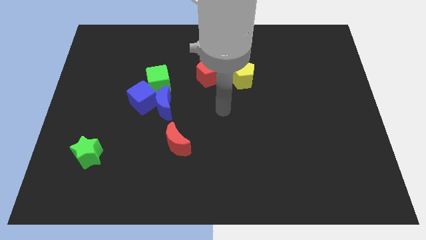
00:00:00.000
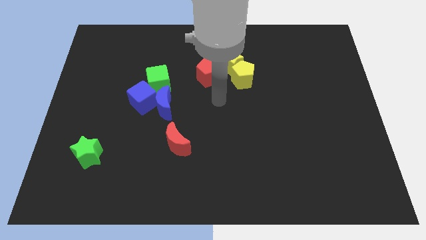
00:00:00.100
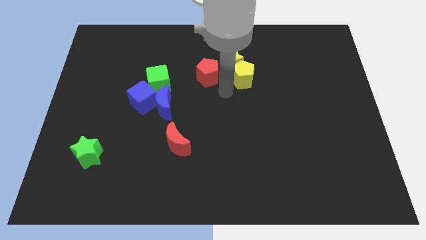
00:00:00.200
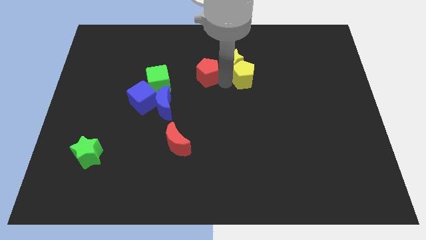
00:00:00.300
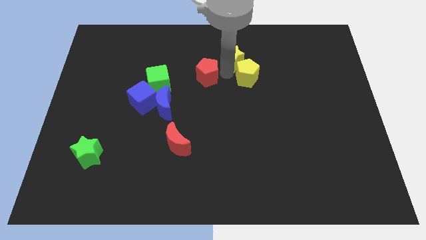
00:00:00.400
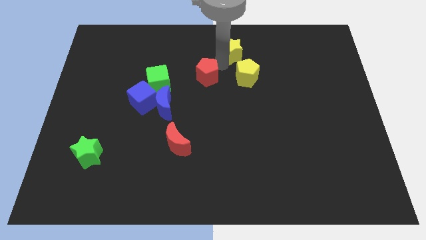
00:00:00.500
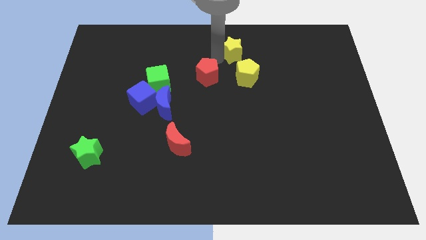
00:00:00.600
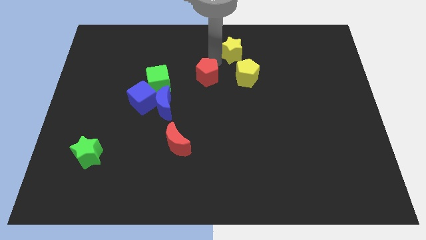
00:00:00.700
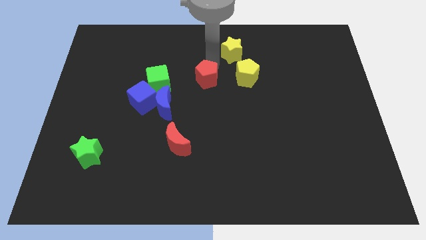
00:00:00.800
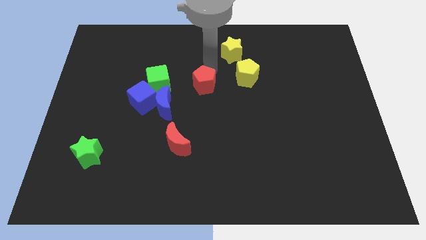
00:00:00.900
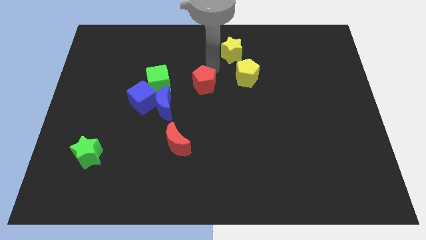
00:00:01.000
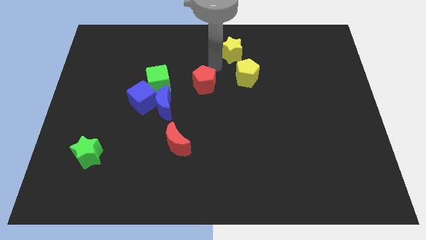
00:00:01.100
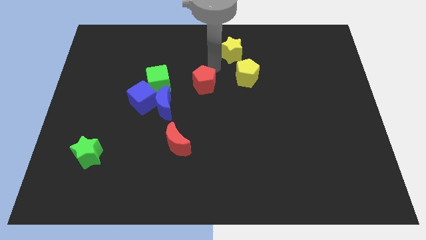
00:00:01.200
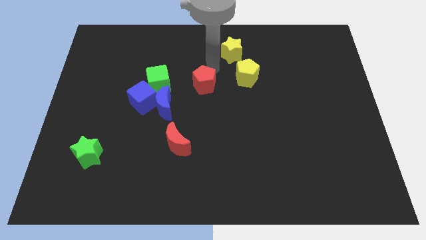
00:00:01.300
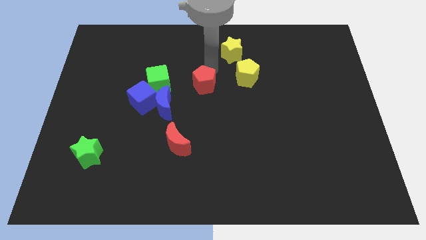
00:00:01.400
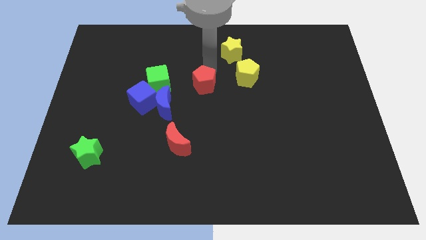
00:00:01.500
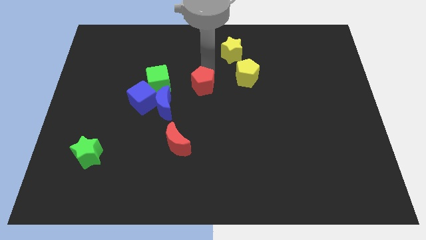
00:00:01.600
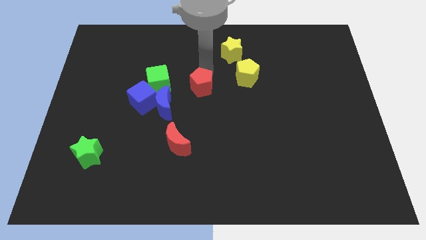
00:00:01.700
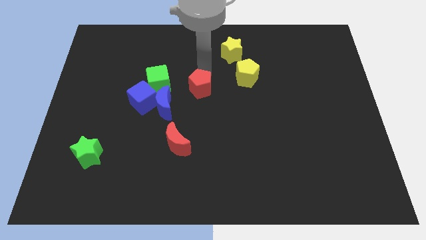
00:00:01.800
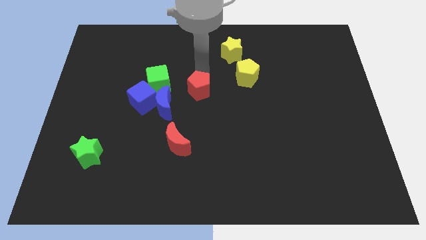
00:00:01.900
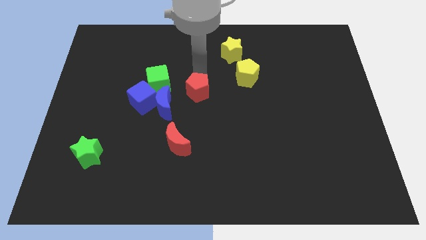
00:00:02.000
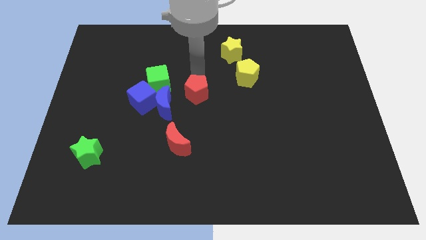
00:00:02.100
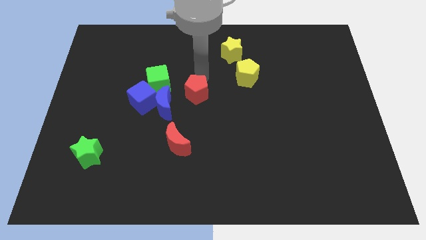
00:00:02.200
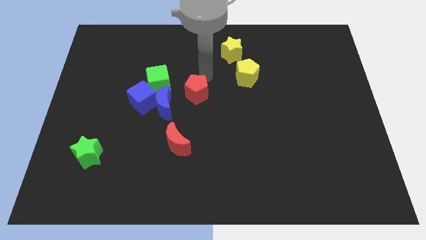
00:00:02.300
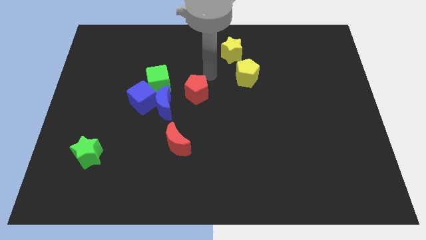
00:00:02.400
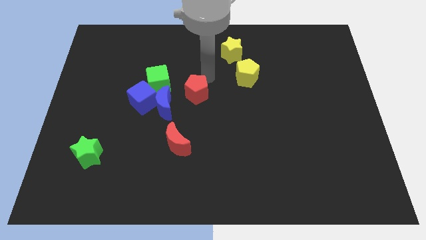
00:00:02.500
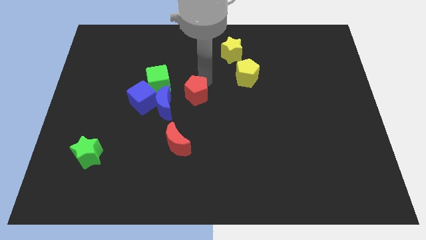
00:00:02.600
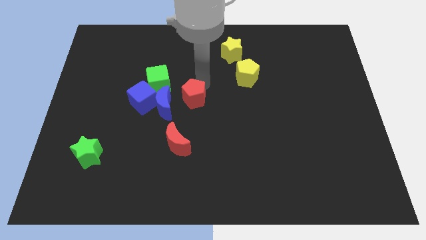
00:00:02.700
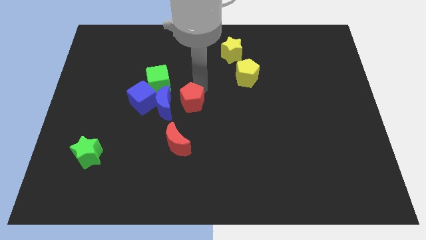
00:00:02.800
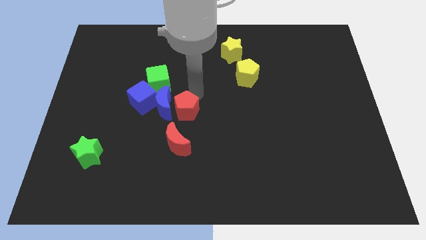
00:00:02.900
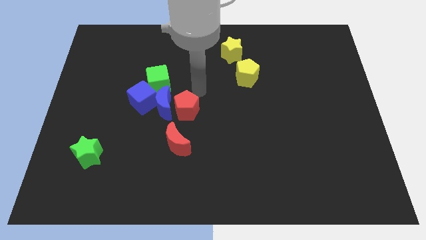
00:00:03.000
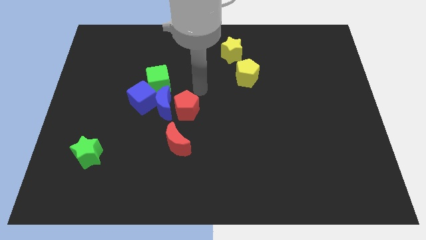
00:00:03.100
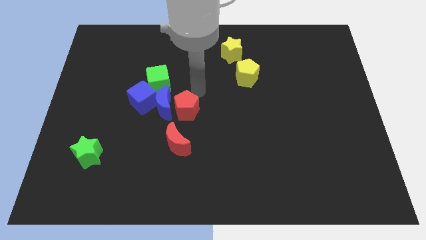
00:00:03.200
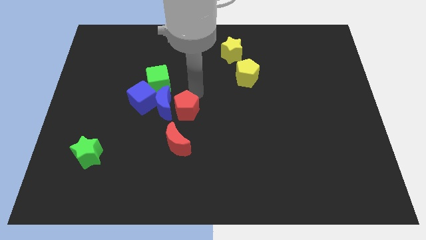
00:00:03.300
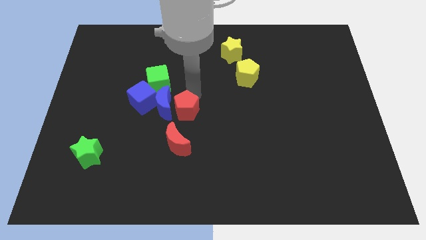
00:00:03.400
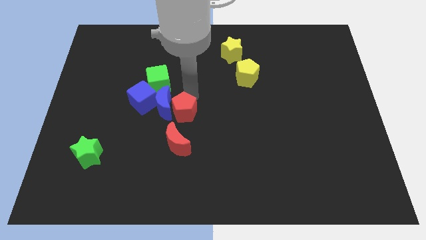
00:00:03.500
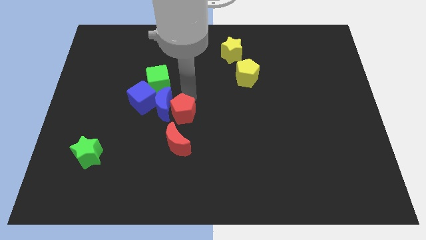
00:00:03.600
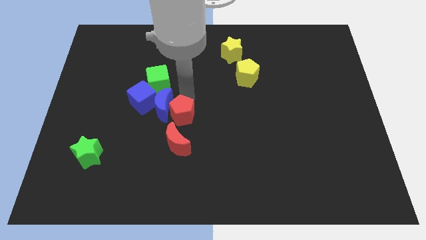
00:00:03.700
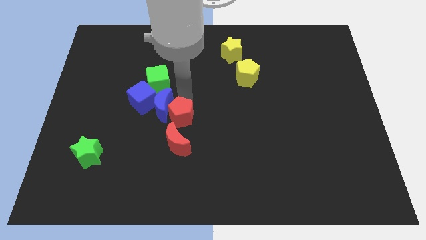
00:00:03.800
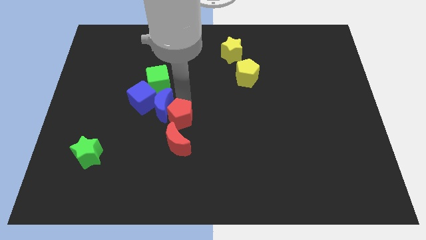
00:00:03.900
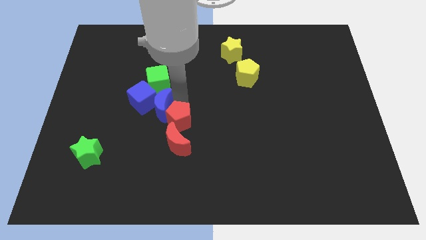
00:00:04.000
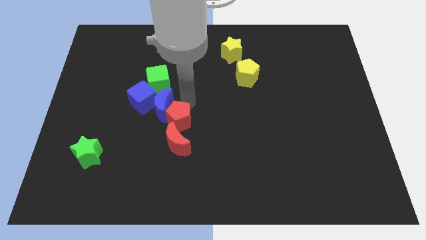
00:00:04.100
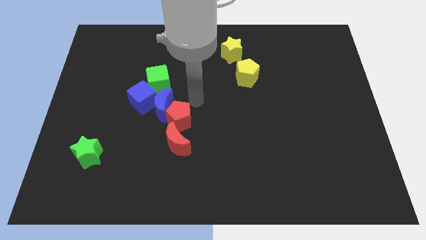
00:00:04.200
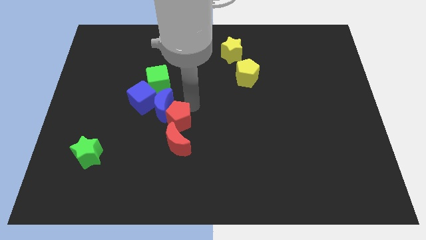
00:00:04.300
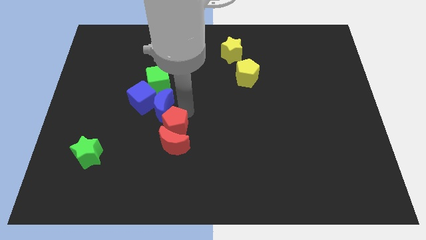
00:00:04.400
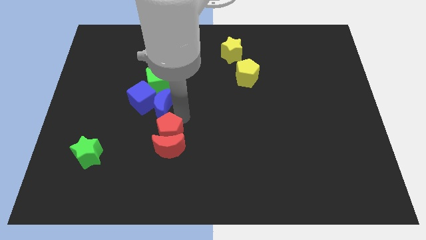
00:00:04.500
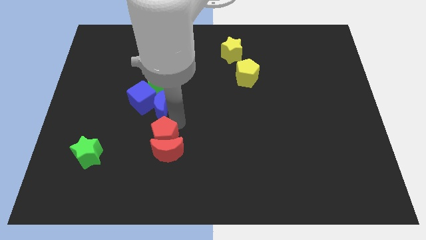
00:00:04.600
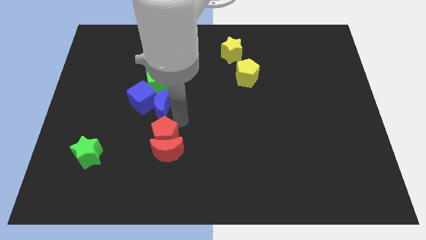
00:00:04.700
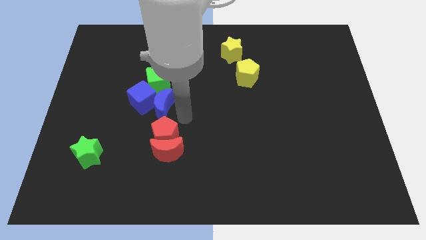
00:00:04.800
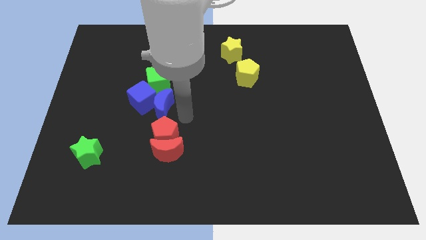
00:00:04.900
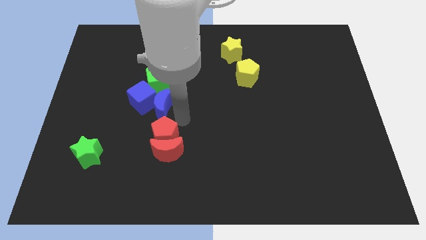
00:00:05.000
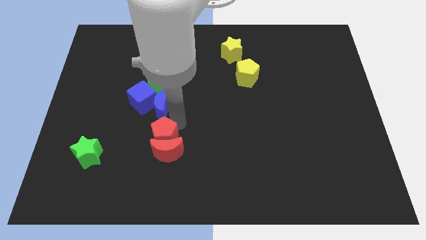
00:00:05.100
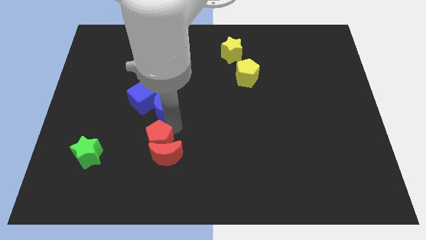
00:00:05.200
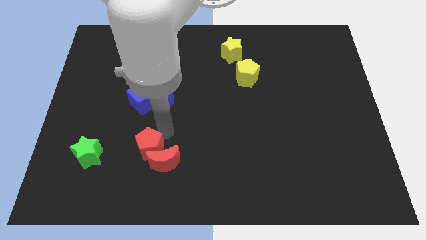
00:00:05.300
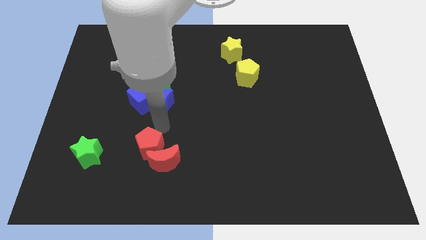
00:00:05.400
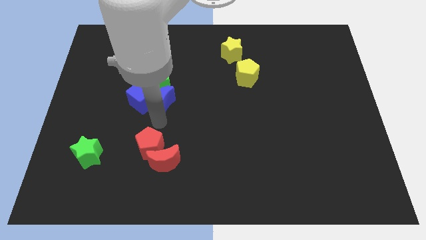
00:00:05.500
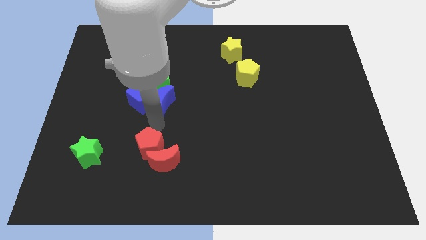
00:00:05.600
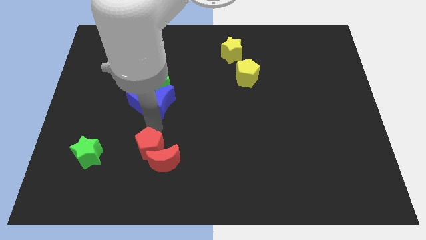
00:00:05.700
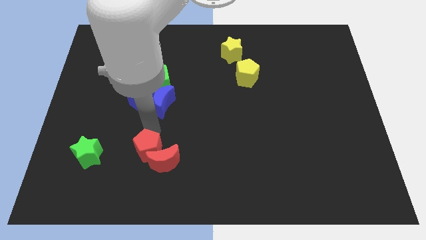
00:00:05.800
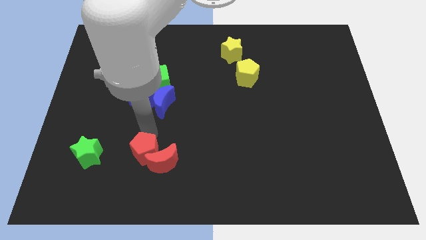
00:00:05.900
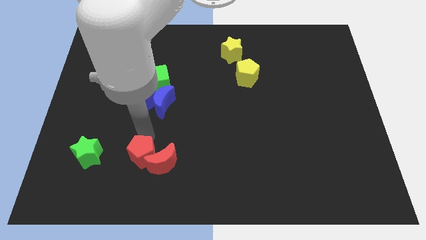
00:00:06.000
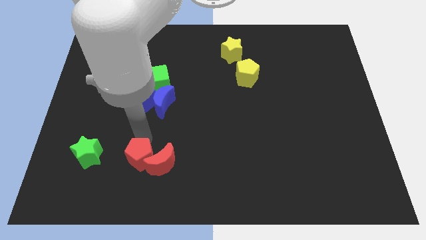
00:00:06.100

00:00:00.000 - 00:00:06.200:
put the red pentagon to the bottom left of the red moon

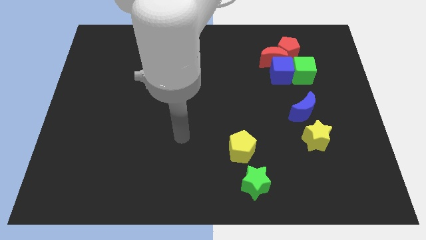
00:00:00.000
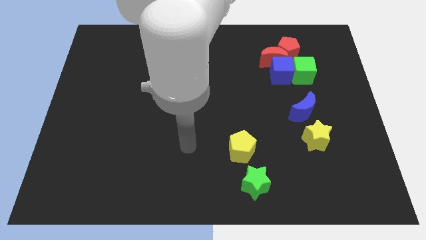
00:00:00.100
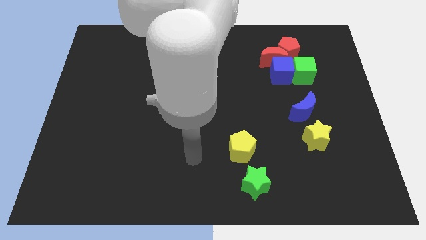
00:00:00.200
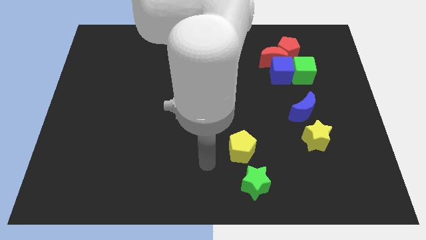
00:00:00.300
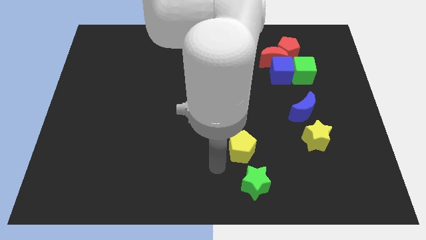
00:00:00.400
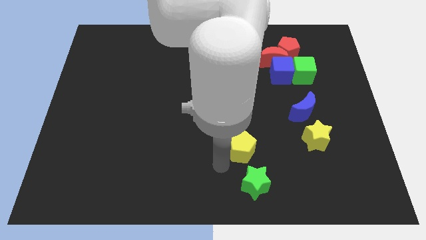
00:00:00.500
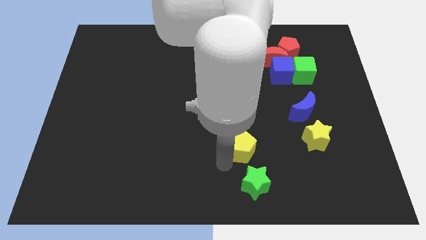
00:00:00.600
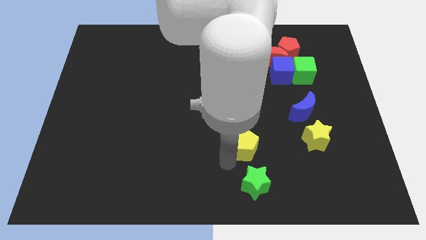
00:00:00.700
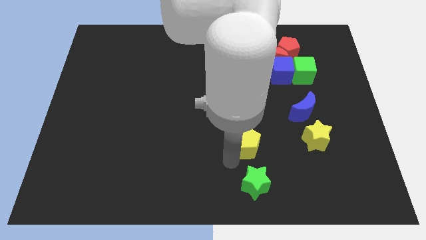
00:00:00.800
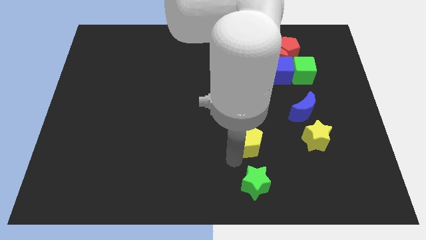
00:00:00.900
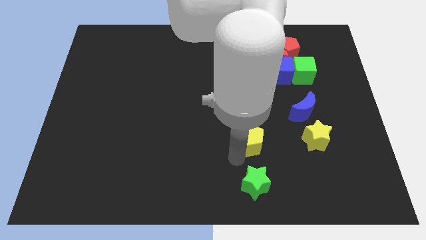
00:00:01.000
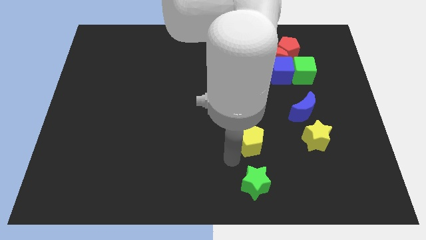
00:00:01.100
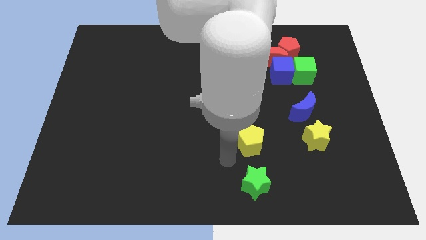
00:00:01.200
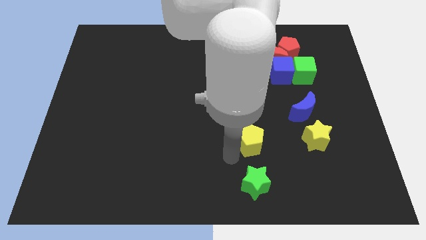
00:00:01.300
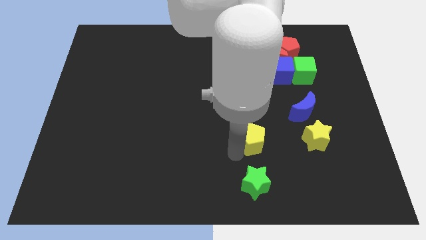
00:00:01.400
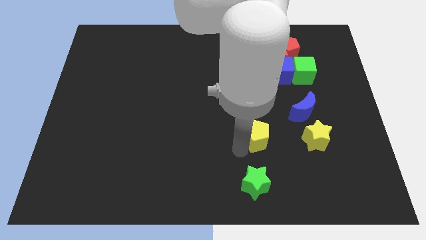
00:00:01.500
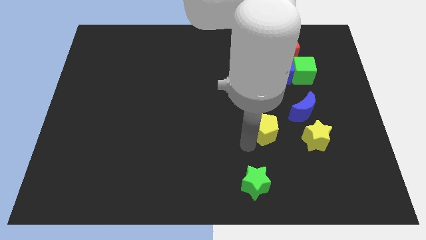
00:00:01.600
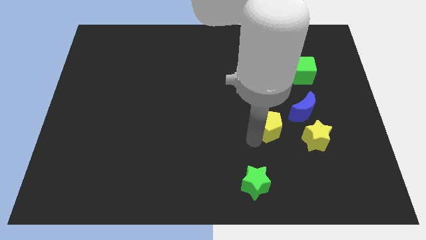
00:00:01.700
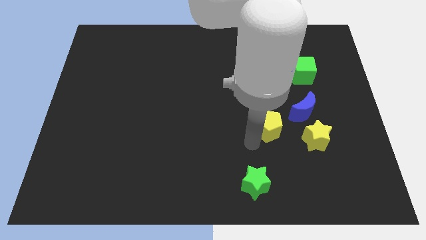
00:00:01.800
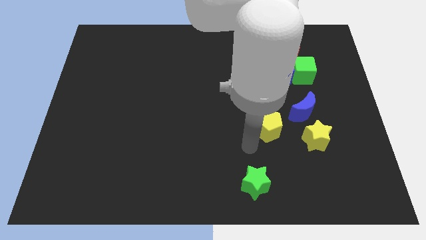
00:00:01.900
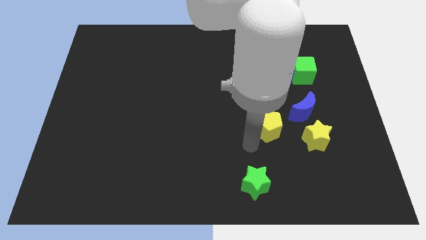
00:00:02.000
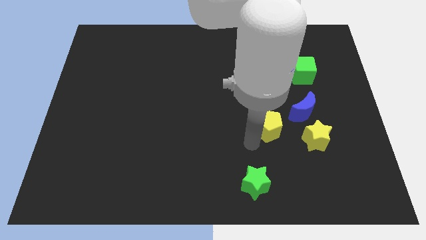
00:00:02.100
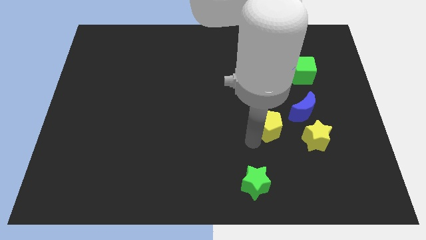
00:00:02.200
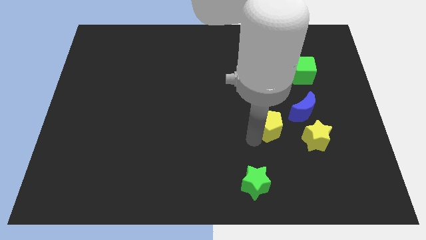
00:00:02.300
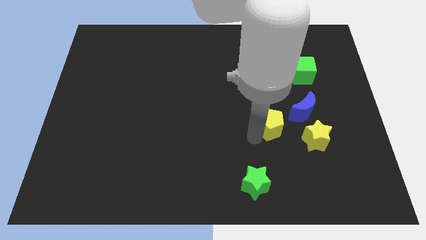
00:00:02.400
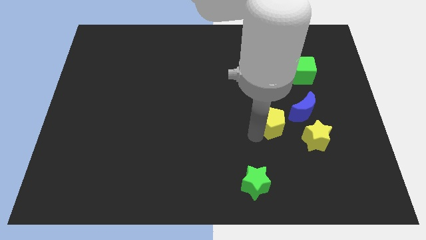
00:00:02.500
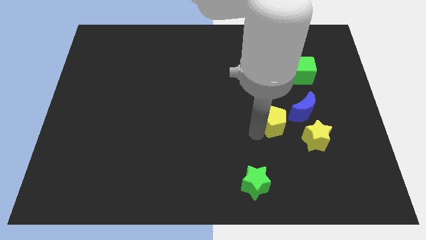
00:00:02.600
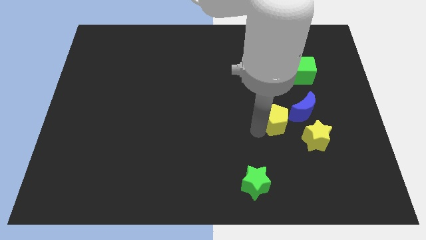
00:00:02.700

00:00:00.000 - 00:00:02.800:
slide the yellow pentagon to the bottom side of the blue cube
